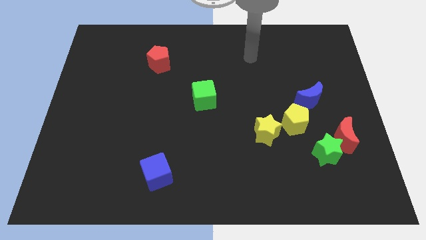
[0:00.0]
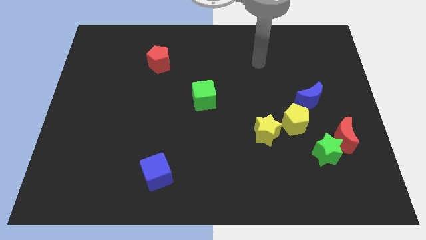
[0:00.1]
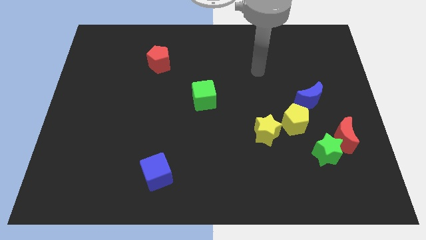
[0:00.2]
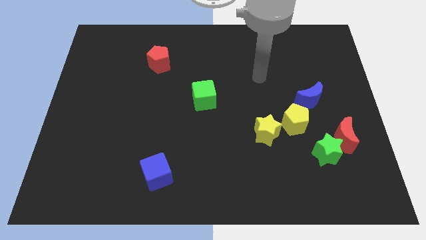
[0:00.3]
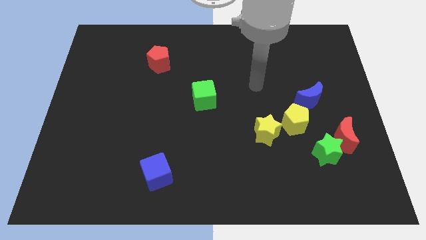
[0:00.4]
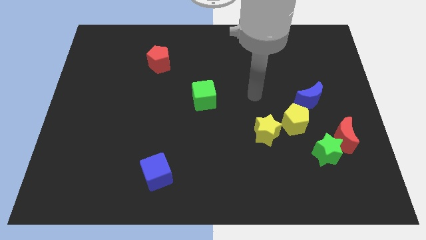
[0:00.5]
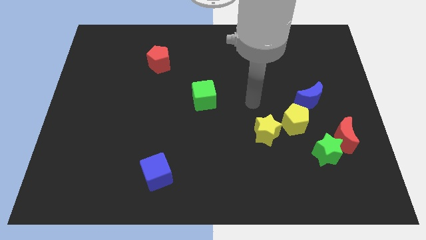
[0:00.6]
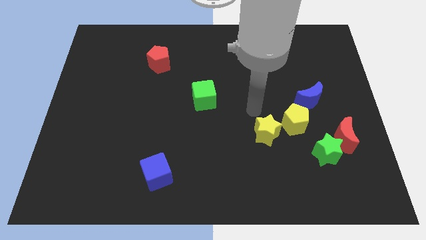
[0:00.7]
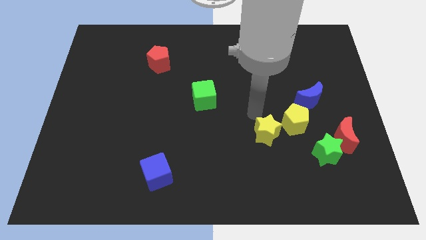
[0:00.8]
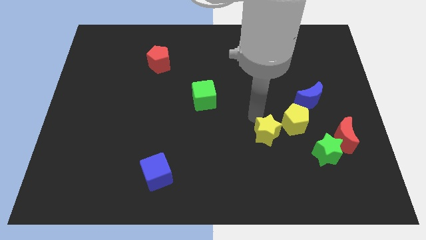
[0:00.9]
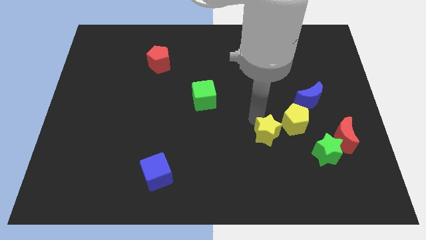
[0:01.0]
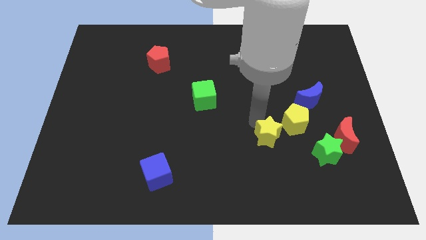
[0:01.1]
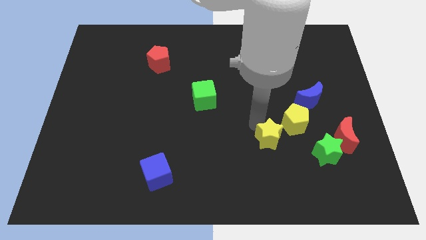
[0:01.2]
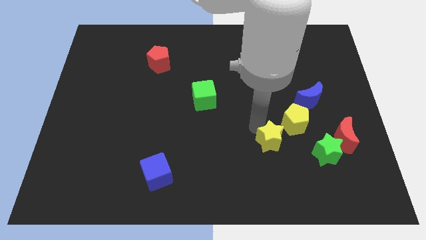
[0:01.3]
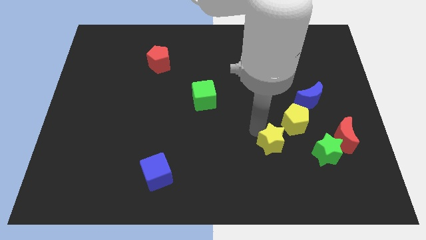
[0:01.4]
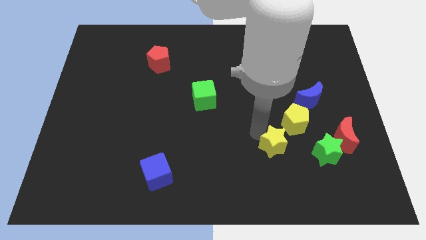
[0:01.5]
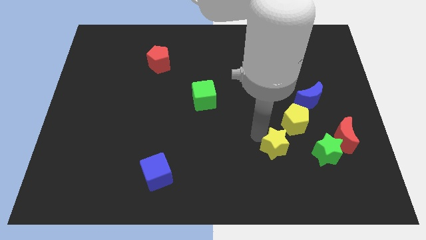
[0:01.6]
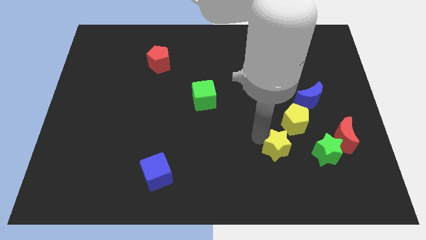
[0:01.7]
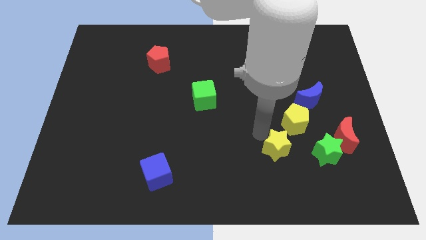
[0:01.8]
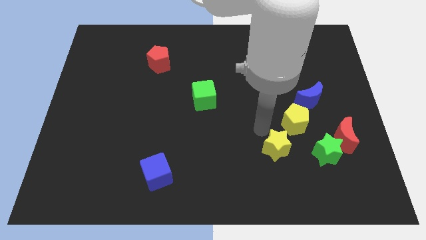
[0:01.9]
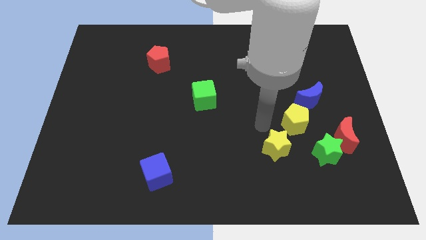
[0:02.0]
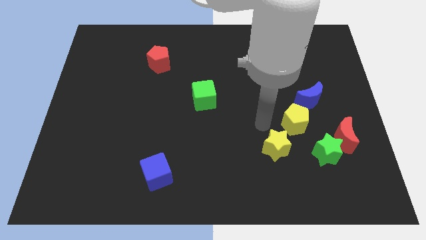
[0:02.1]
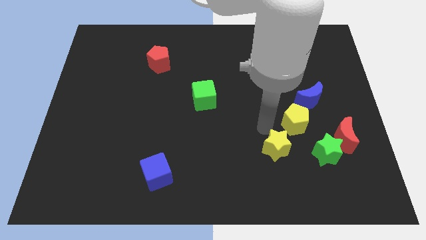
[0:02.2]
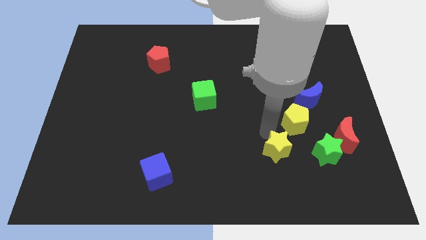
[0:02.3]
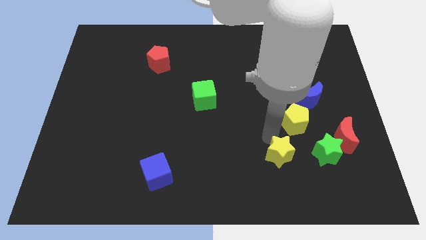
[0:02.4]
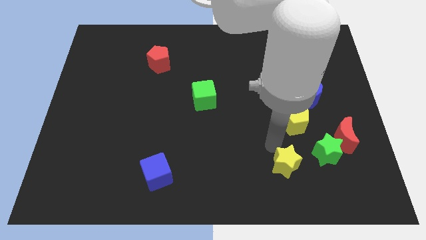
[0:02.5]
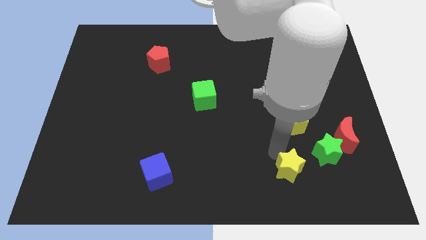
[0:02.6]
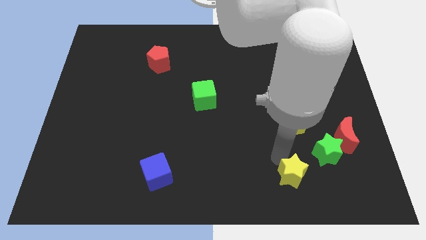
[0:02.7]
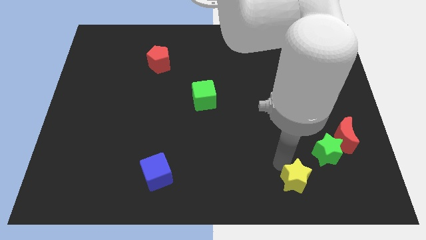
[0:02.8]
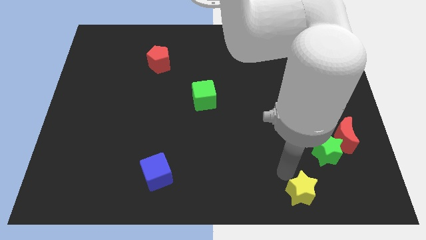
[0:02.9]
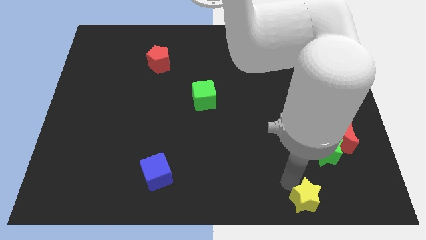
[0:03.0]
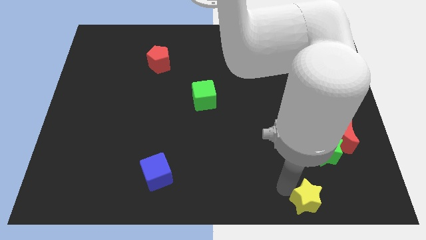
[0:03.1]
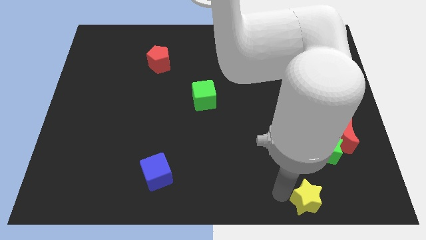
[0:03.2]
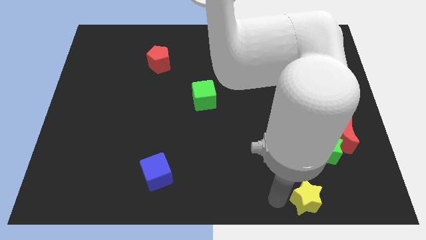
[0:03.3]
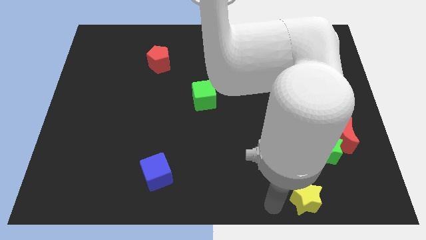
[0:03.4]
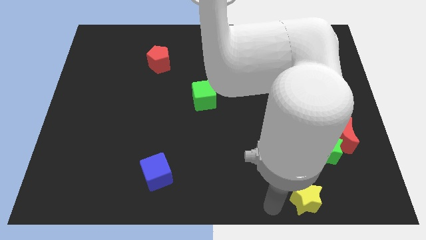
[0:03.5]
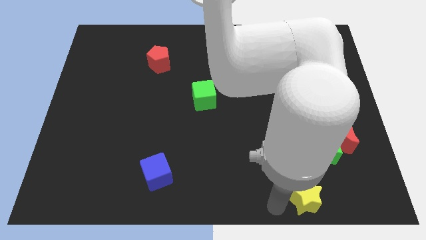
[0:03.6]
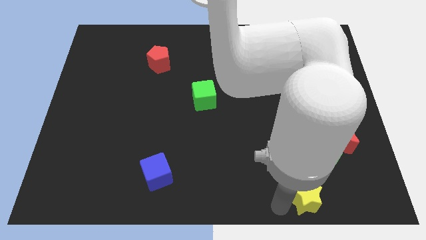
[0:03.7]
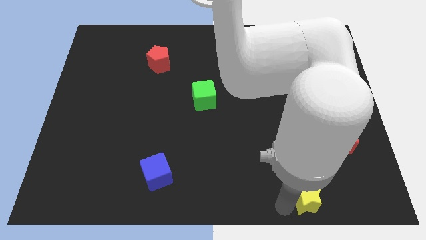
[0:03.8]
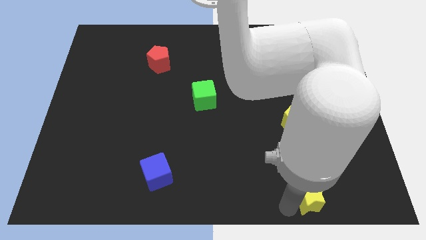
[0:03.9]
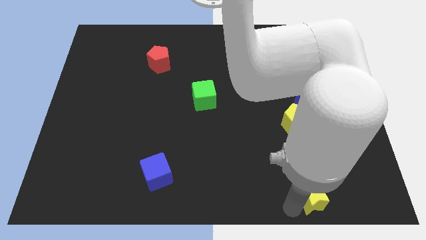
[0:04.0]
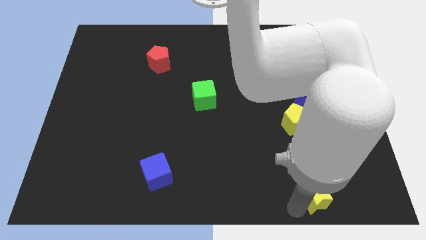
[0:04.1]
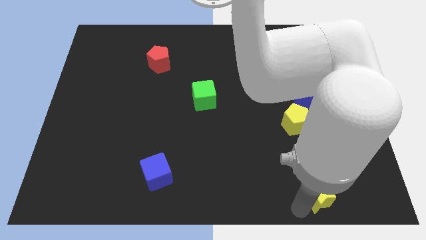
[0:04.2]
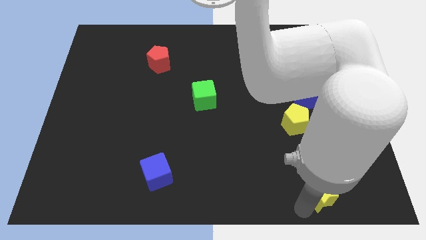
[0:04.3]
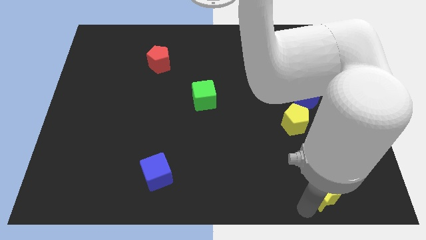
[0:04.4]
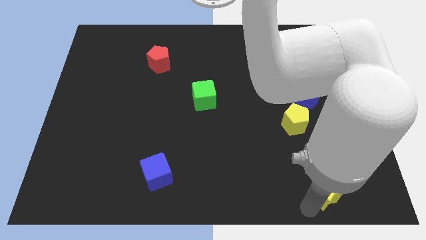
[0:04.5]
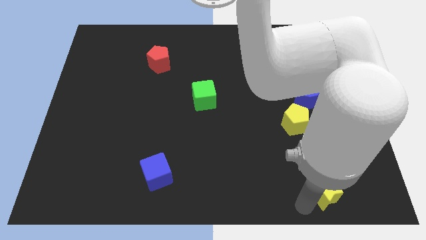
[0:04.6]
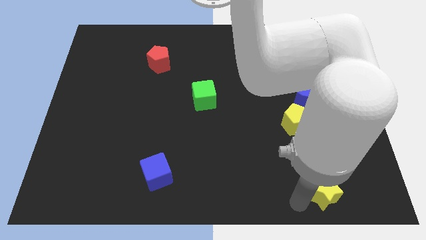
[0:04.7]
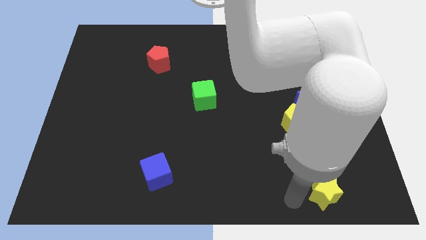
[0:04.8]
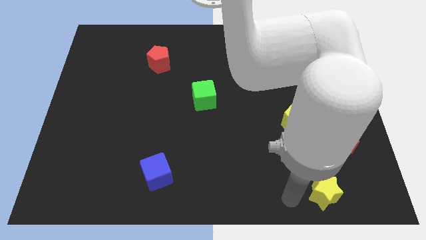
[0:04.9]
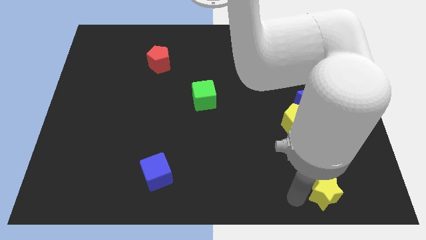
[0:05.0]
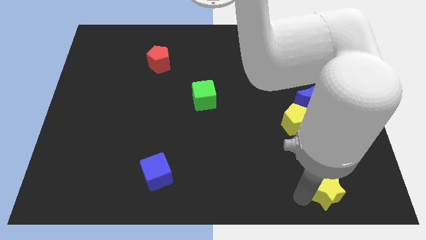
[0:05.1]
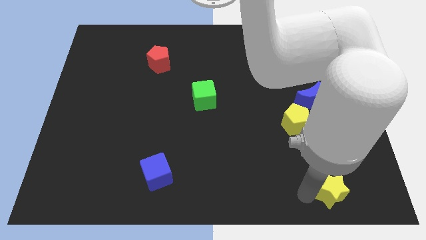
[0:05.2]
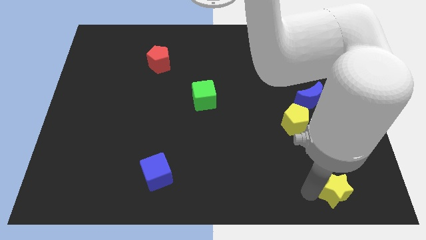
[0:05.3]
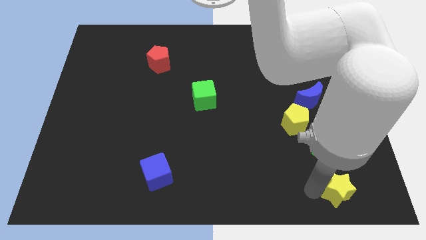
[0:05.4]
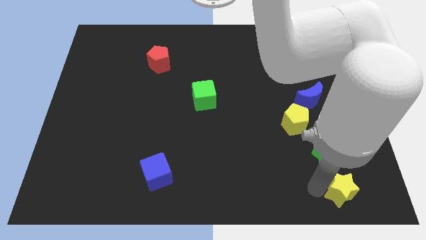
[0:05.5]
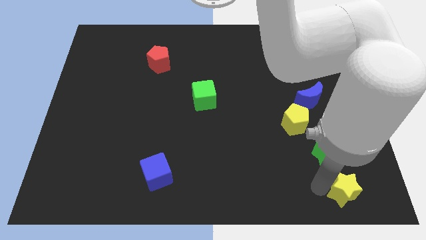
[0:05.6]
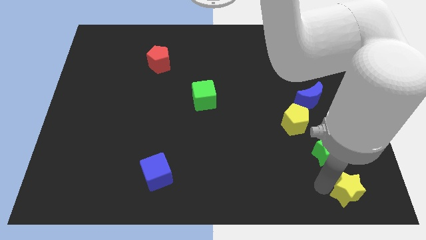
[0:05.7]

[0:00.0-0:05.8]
put the yellow star to the bottom right
